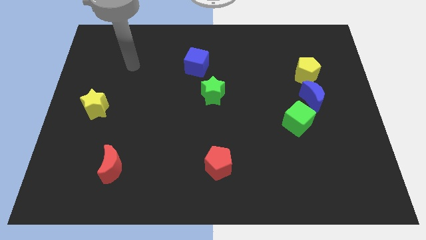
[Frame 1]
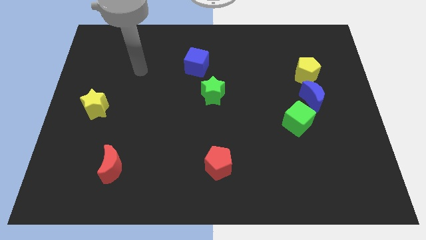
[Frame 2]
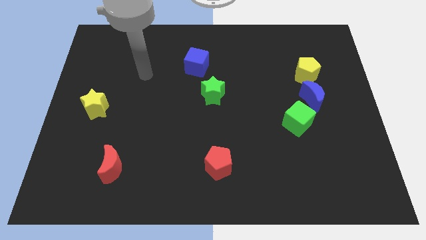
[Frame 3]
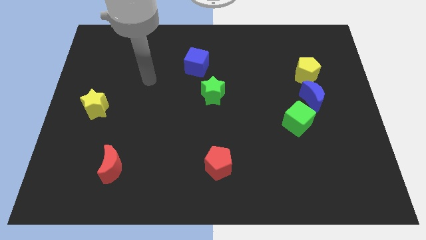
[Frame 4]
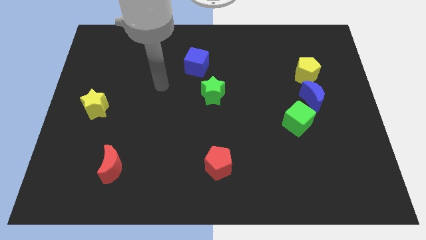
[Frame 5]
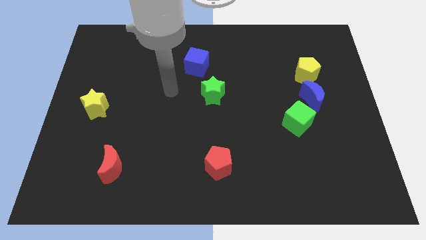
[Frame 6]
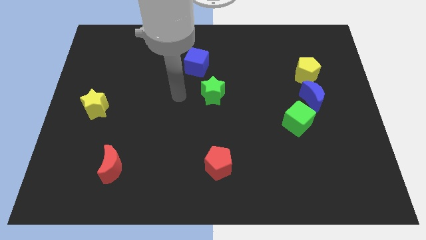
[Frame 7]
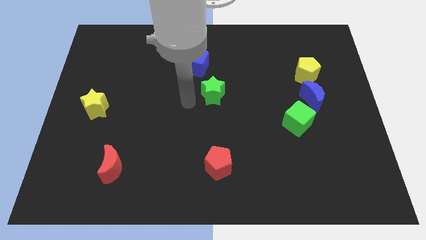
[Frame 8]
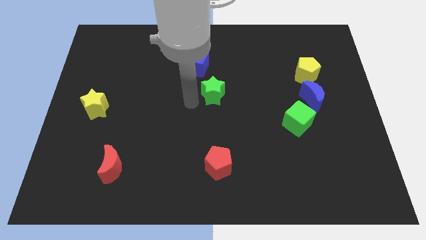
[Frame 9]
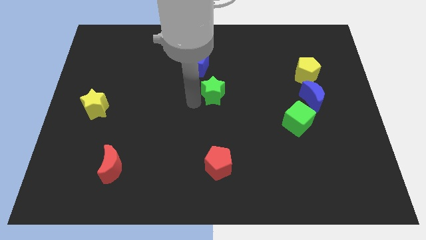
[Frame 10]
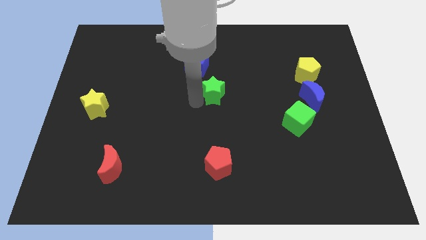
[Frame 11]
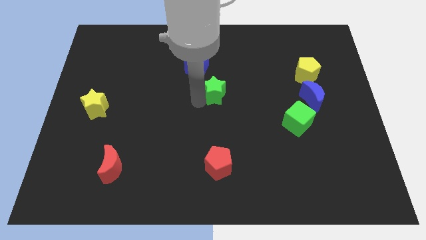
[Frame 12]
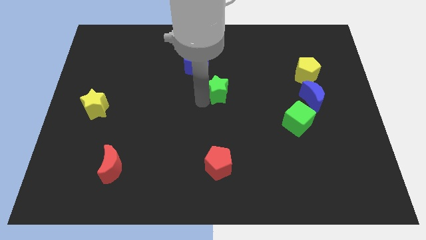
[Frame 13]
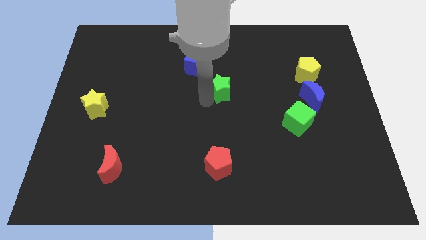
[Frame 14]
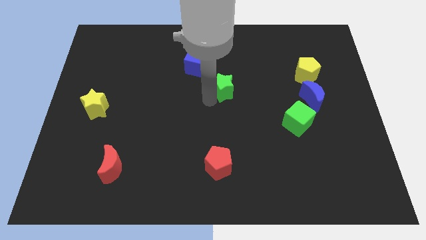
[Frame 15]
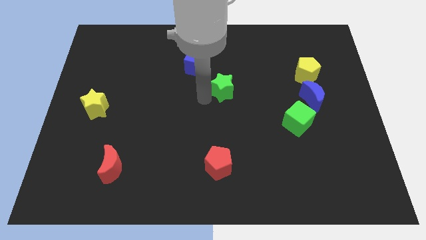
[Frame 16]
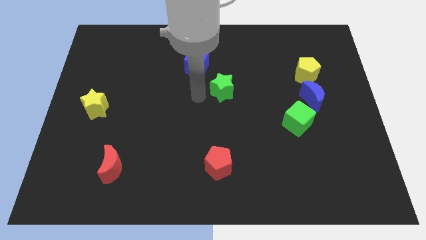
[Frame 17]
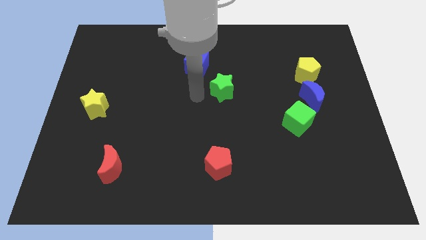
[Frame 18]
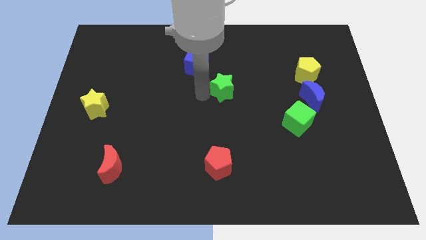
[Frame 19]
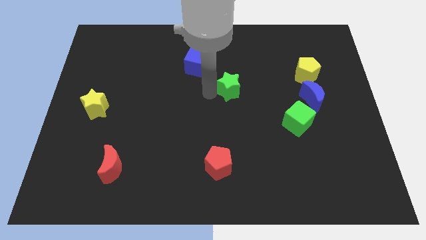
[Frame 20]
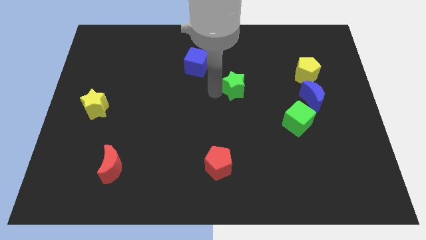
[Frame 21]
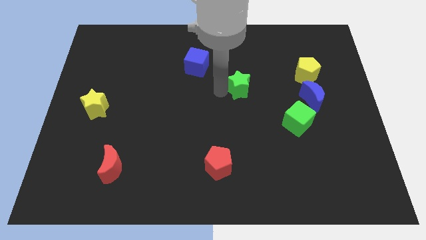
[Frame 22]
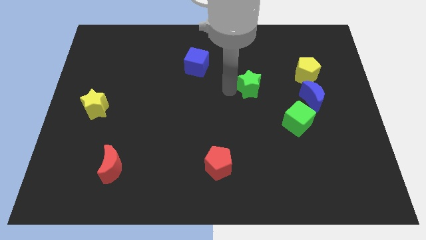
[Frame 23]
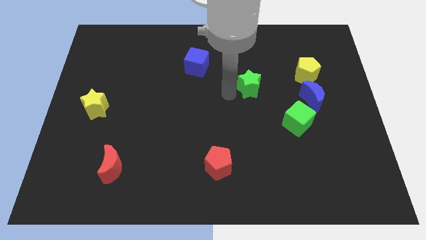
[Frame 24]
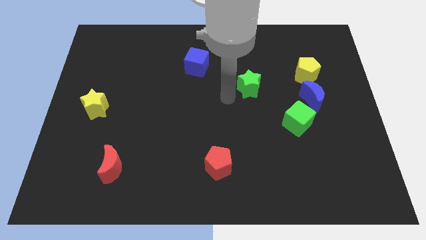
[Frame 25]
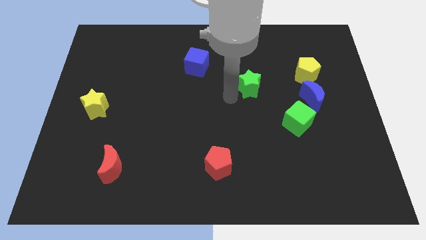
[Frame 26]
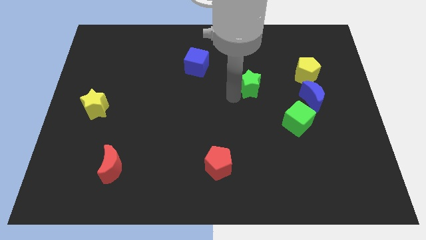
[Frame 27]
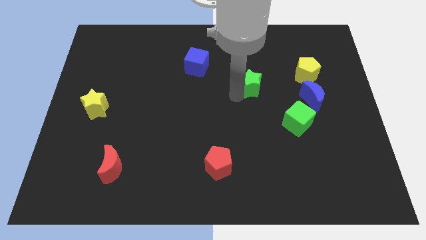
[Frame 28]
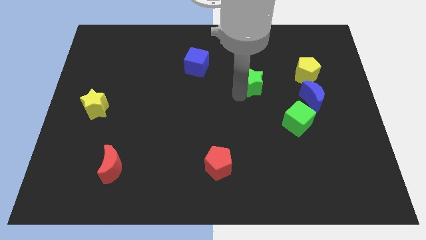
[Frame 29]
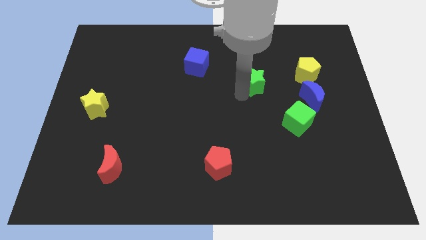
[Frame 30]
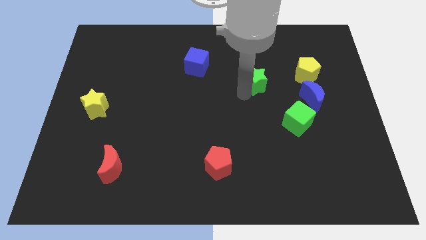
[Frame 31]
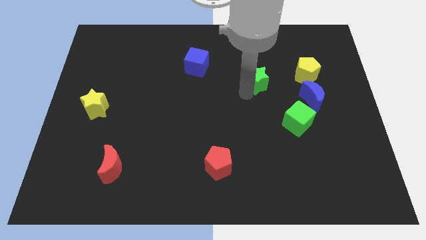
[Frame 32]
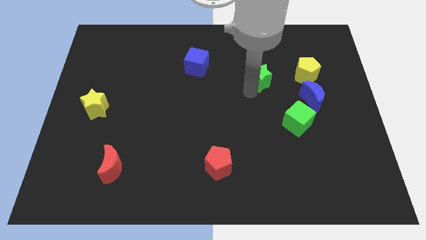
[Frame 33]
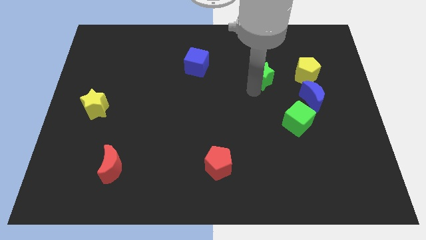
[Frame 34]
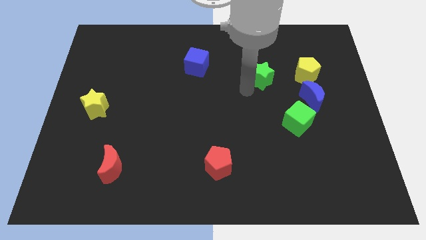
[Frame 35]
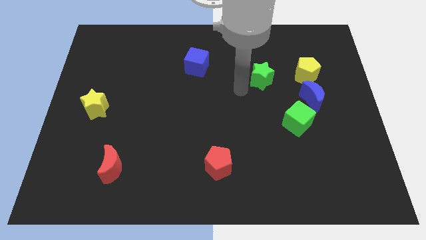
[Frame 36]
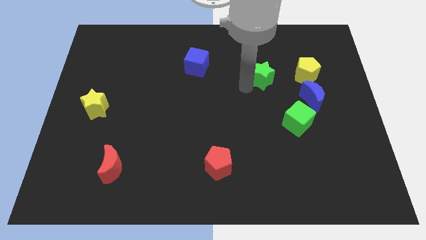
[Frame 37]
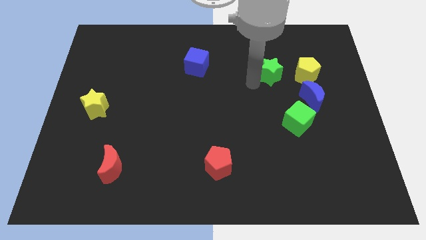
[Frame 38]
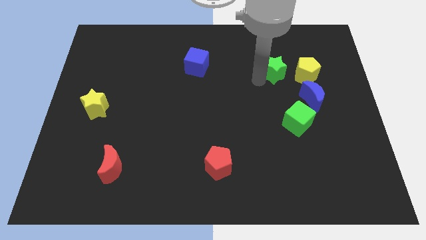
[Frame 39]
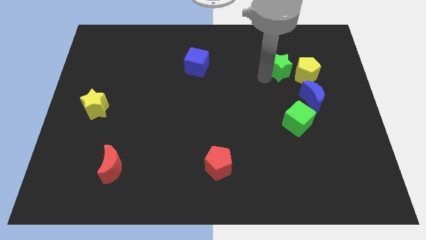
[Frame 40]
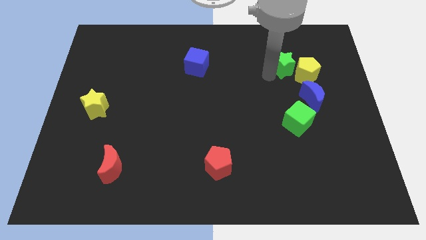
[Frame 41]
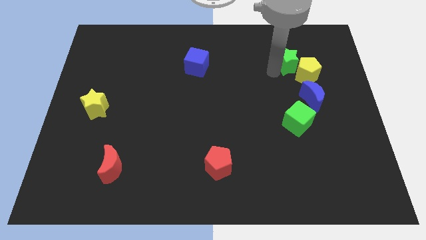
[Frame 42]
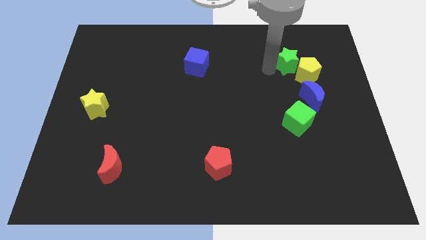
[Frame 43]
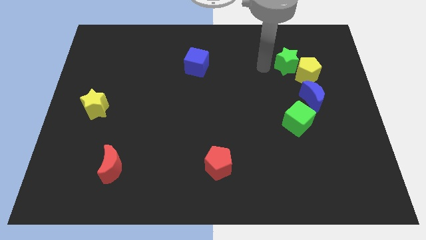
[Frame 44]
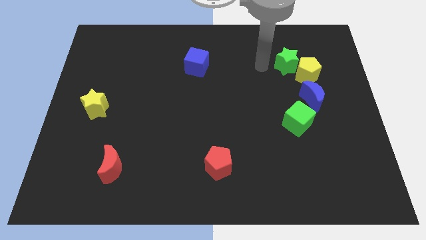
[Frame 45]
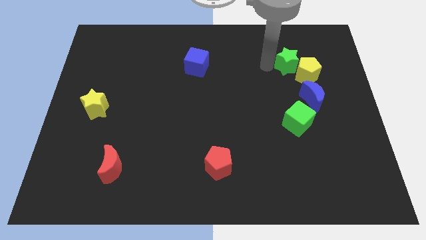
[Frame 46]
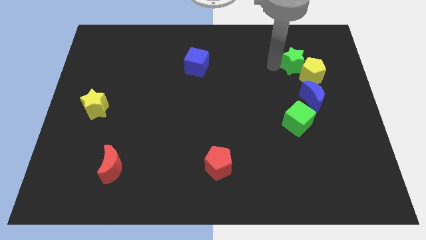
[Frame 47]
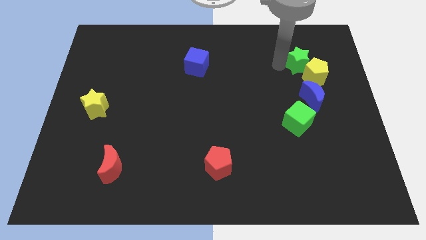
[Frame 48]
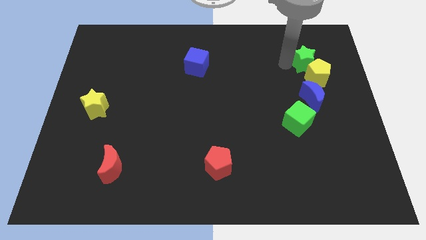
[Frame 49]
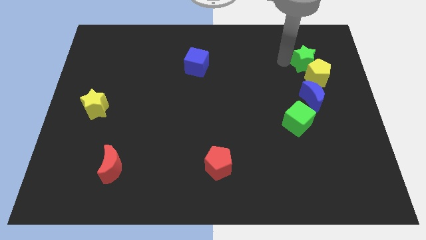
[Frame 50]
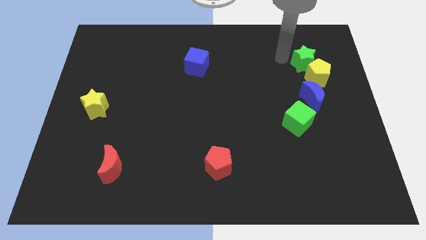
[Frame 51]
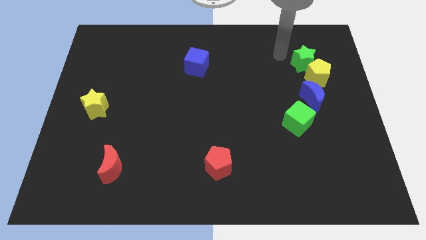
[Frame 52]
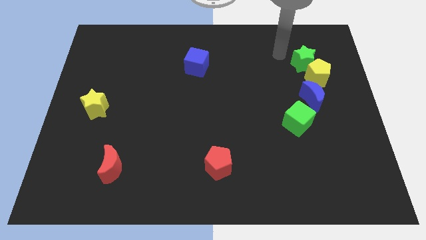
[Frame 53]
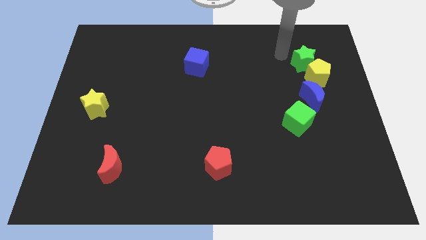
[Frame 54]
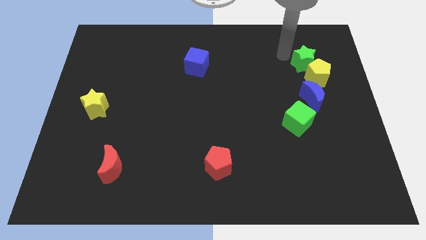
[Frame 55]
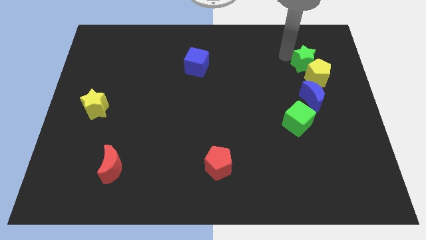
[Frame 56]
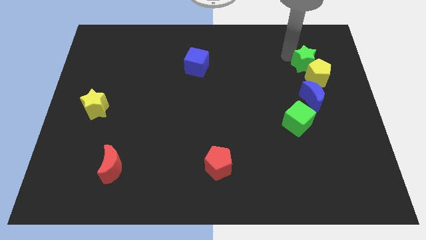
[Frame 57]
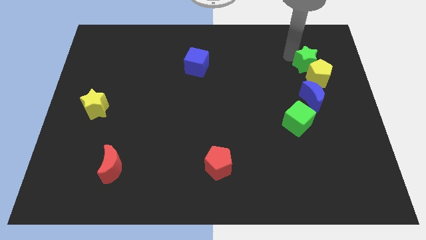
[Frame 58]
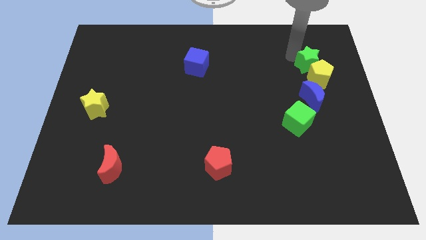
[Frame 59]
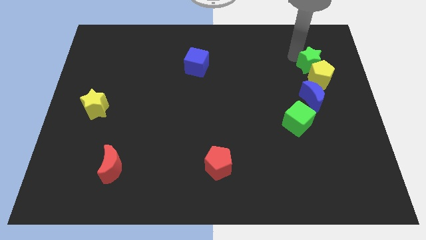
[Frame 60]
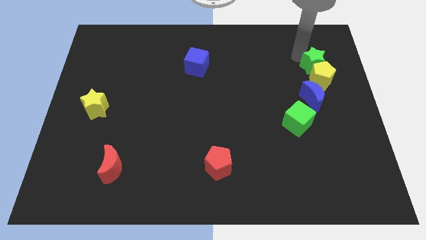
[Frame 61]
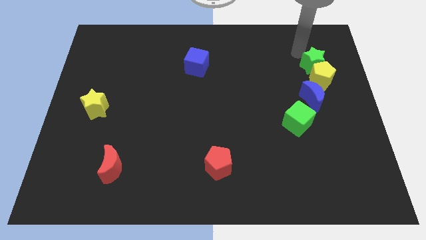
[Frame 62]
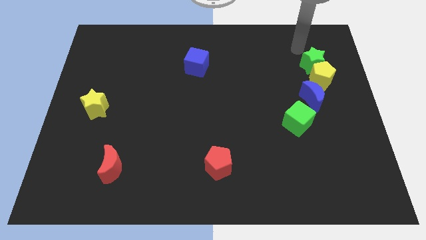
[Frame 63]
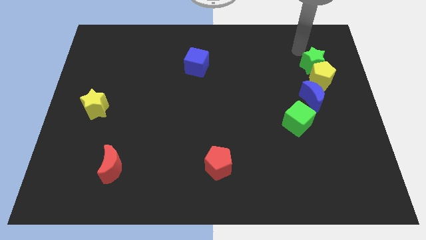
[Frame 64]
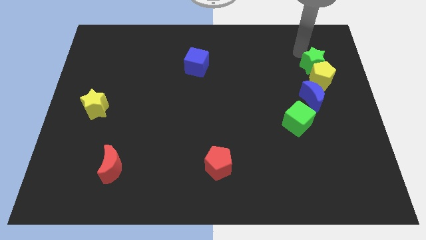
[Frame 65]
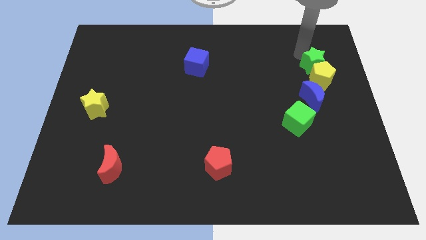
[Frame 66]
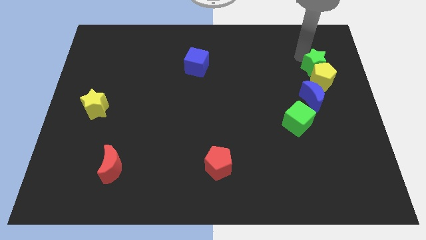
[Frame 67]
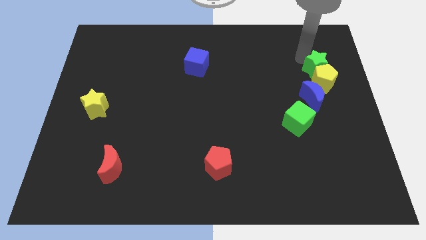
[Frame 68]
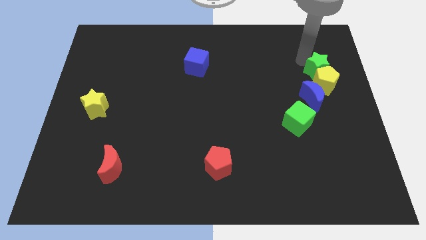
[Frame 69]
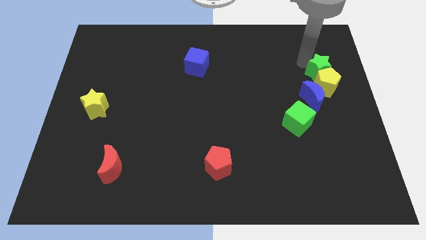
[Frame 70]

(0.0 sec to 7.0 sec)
put the green star diagonally up and to the right of the blue moon
